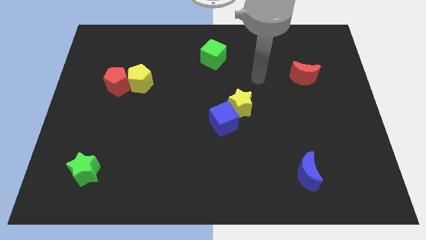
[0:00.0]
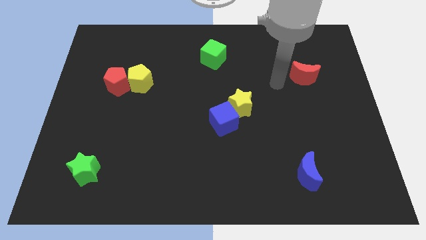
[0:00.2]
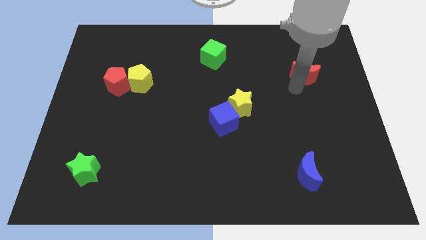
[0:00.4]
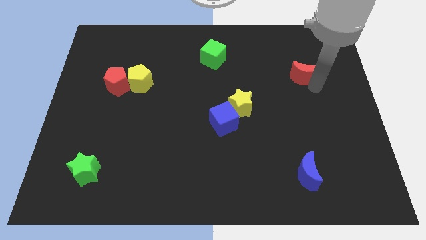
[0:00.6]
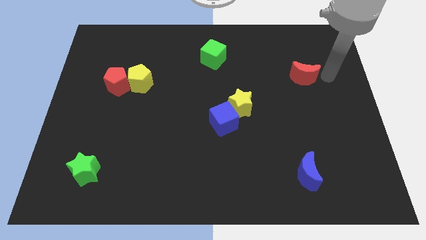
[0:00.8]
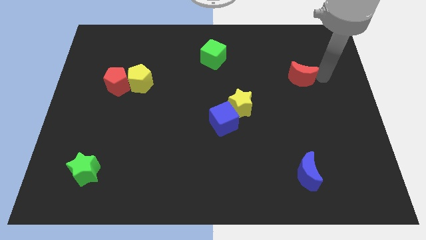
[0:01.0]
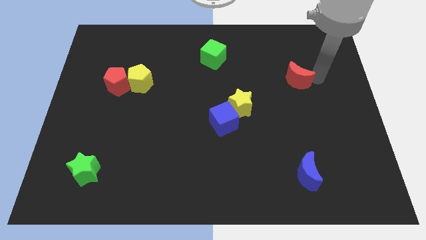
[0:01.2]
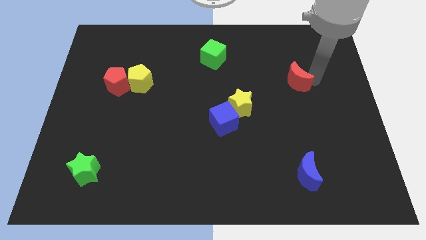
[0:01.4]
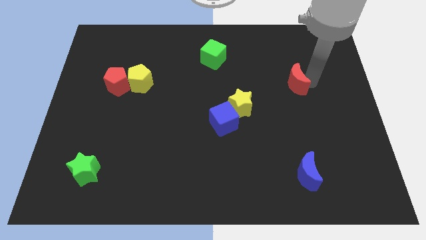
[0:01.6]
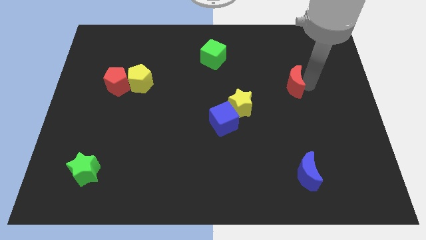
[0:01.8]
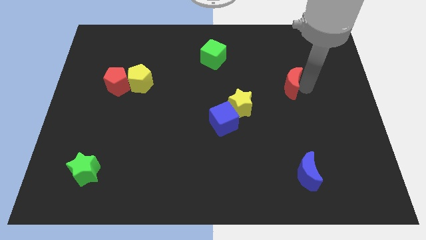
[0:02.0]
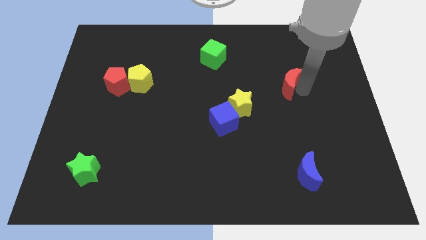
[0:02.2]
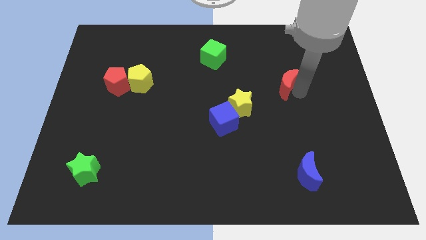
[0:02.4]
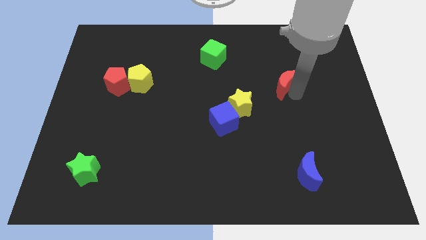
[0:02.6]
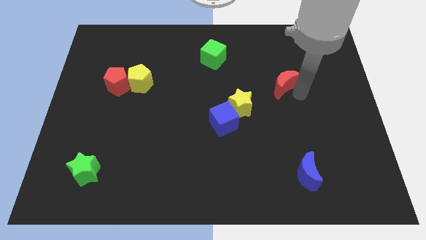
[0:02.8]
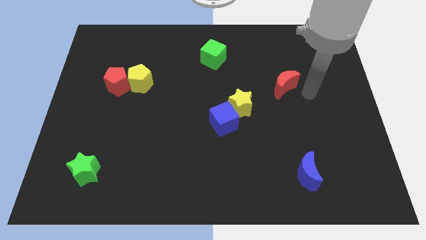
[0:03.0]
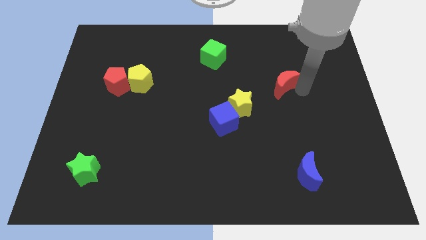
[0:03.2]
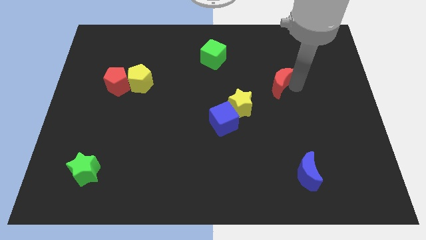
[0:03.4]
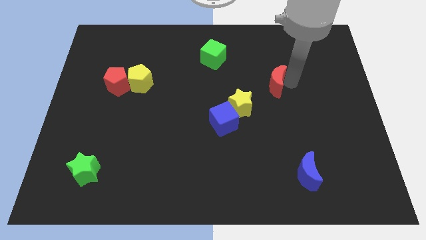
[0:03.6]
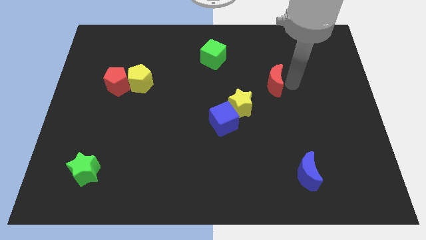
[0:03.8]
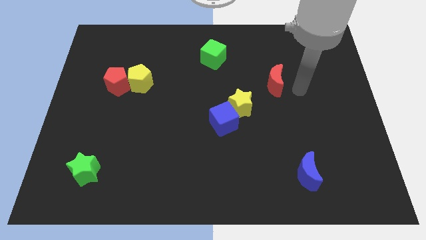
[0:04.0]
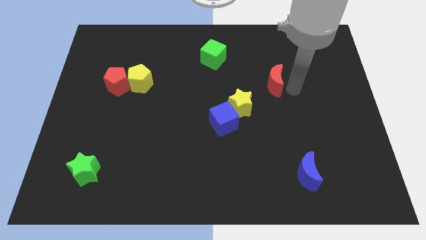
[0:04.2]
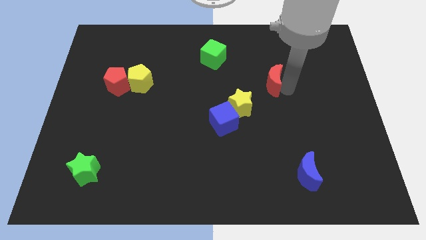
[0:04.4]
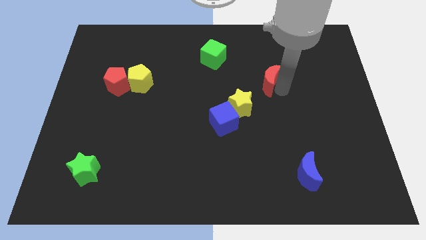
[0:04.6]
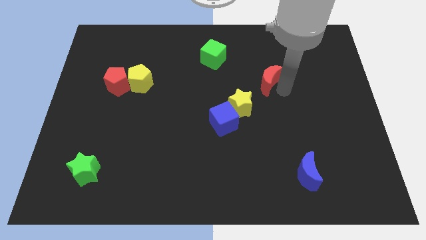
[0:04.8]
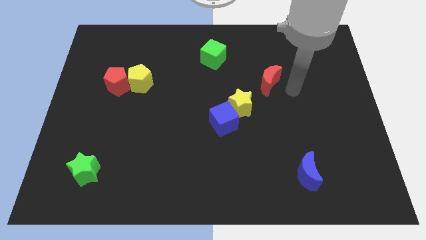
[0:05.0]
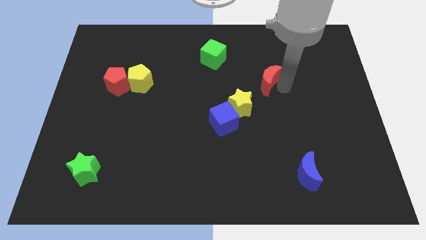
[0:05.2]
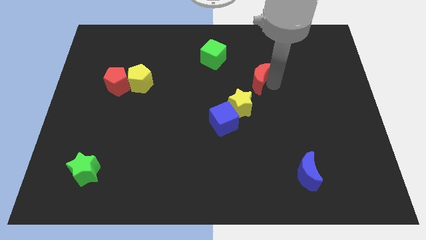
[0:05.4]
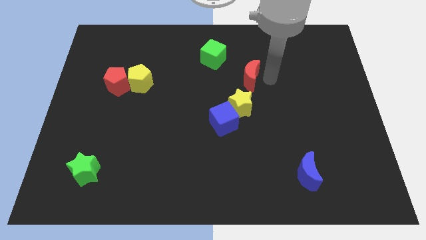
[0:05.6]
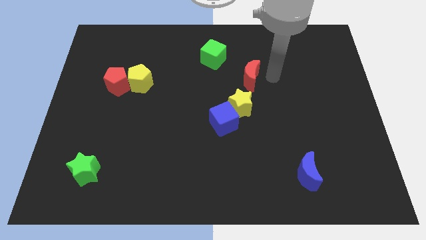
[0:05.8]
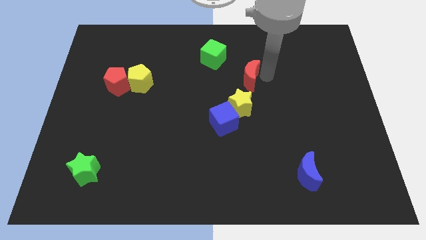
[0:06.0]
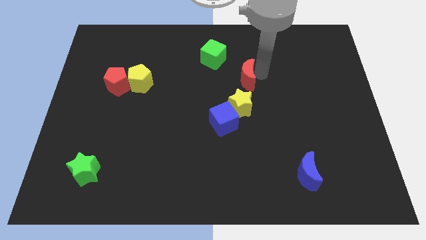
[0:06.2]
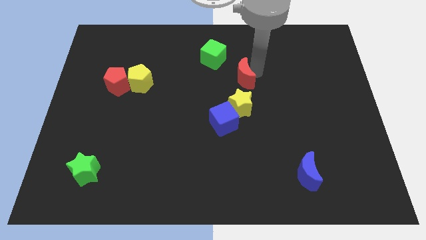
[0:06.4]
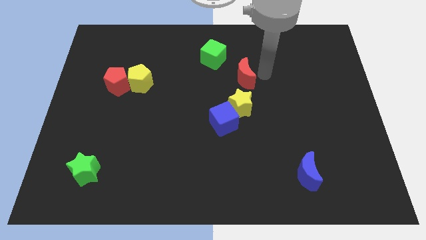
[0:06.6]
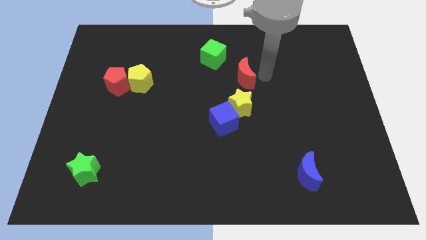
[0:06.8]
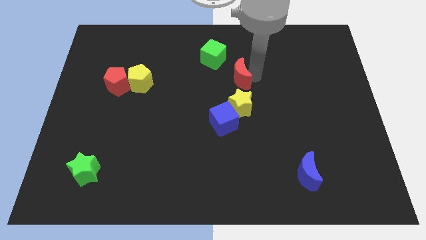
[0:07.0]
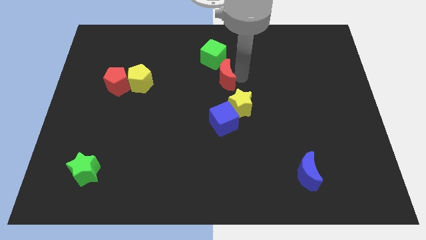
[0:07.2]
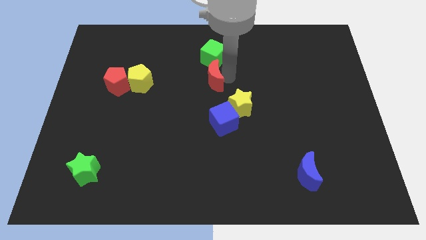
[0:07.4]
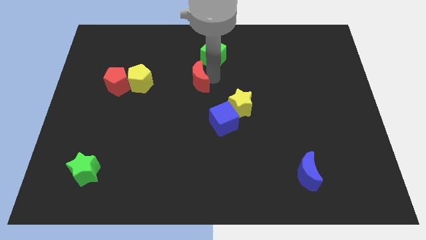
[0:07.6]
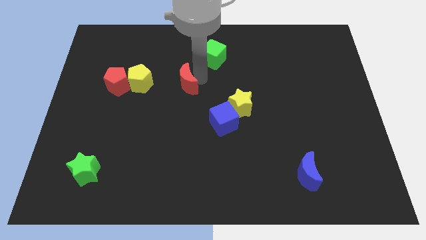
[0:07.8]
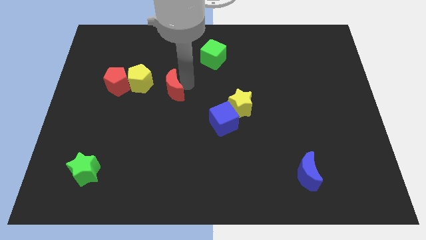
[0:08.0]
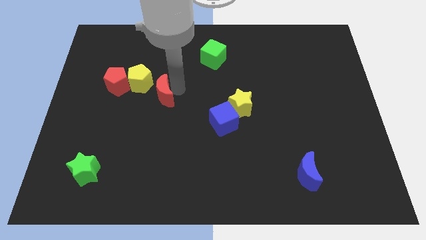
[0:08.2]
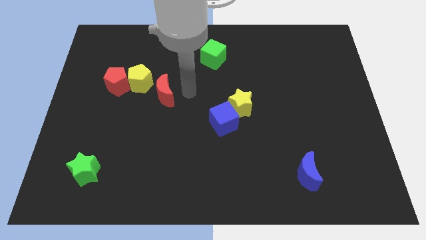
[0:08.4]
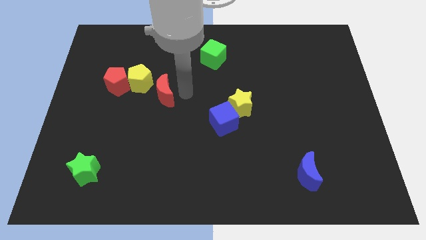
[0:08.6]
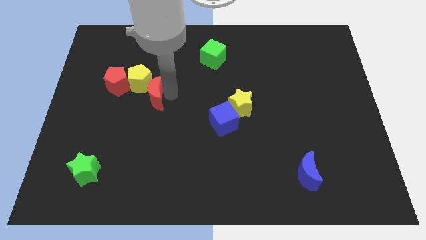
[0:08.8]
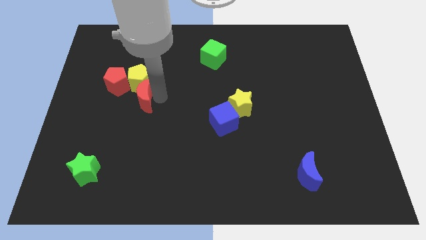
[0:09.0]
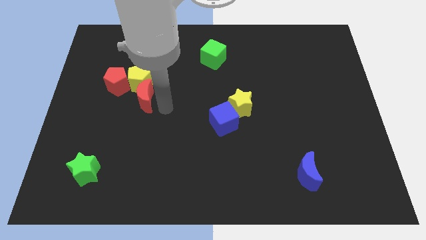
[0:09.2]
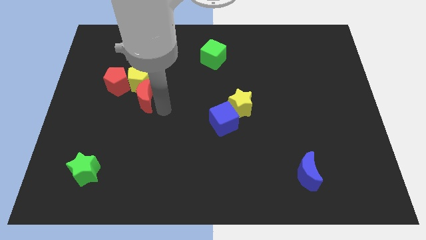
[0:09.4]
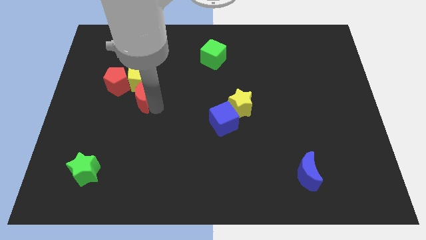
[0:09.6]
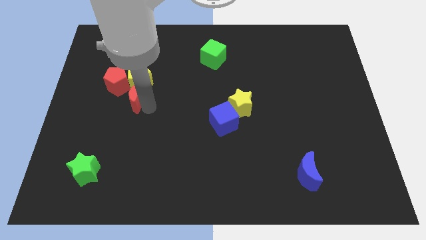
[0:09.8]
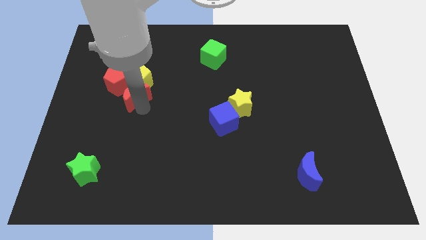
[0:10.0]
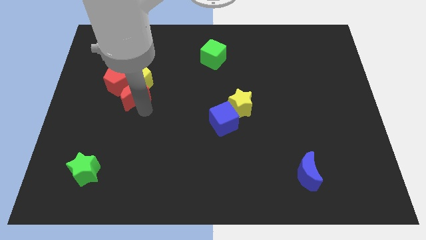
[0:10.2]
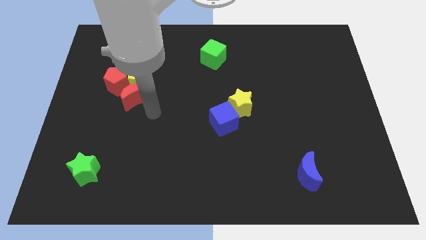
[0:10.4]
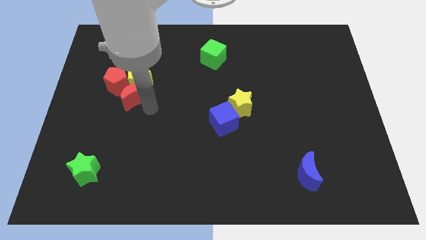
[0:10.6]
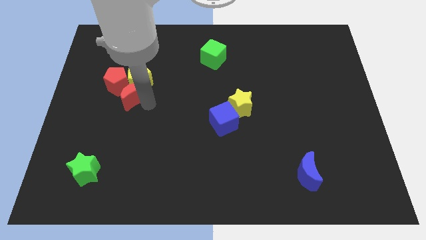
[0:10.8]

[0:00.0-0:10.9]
push the red moon next to the red pentagon

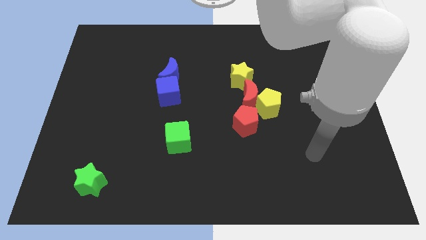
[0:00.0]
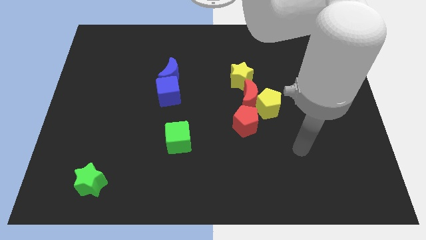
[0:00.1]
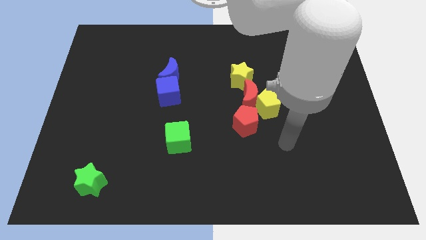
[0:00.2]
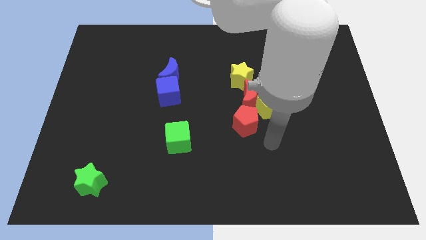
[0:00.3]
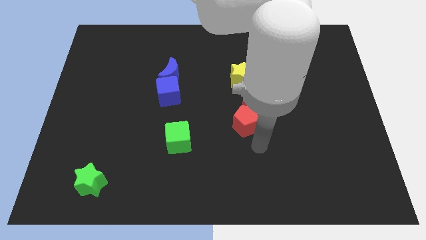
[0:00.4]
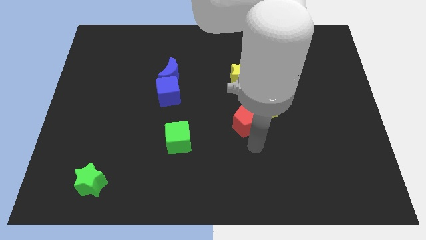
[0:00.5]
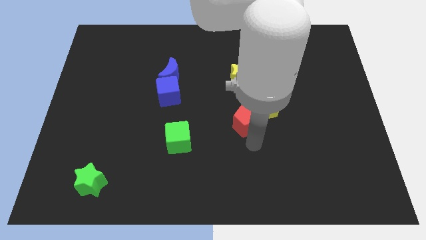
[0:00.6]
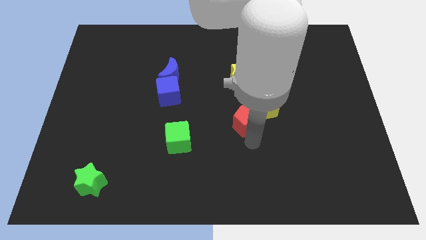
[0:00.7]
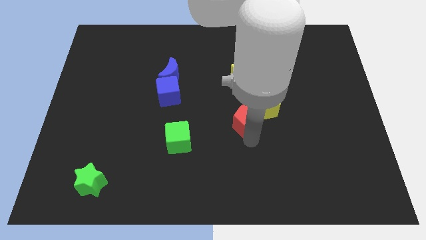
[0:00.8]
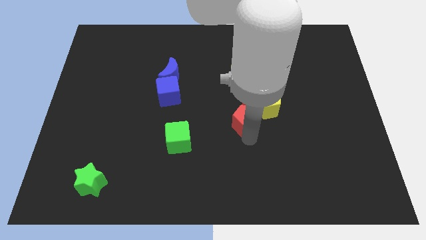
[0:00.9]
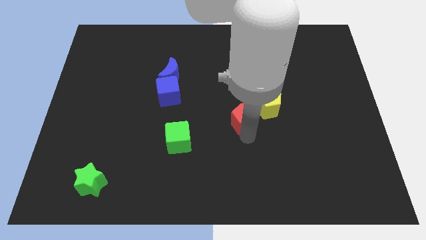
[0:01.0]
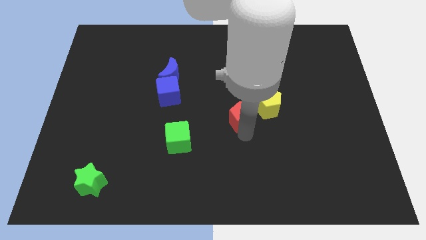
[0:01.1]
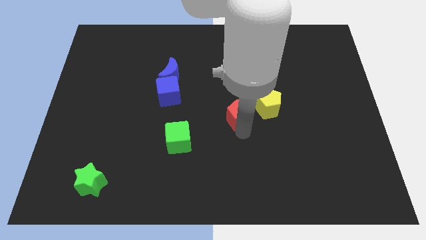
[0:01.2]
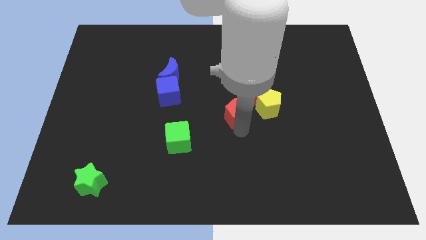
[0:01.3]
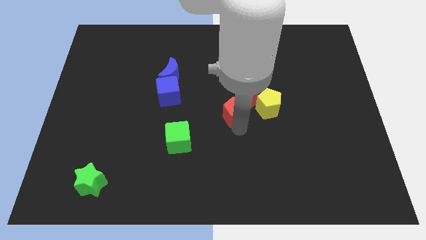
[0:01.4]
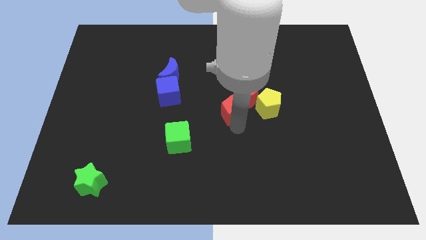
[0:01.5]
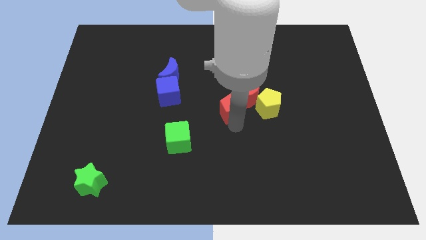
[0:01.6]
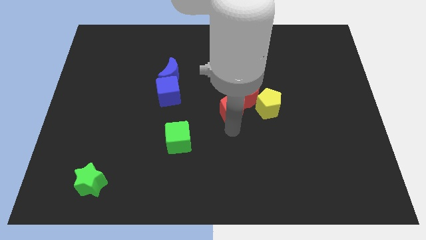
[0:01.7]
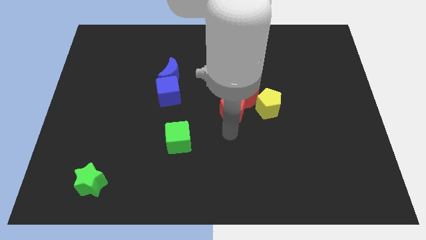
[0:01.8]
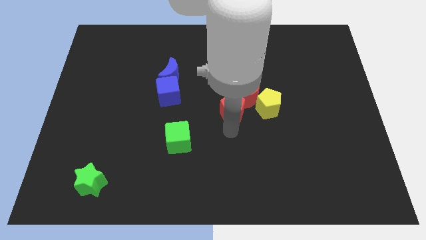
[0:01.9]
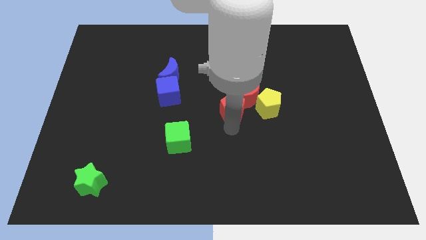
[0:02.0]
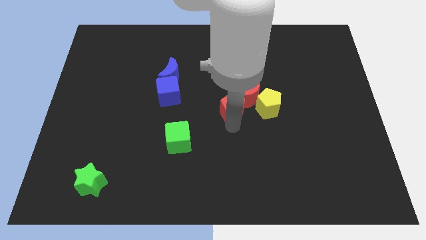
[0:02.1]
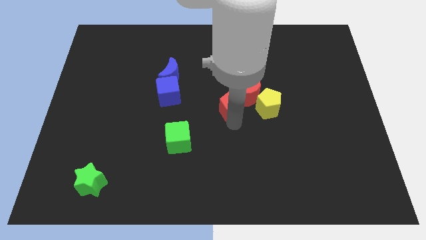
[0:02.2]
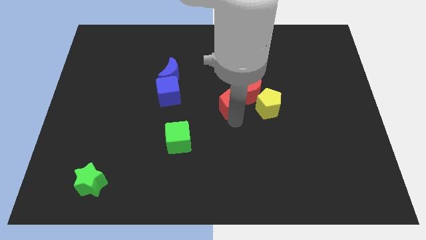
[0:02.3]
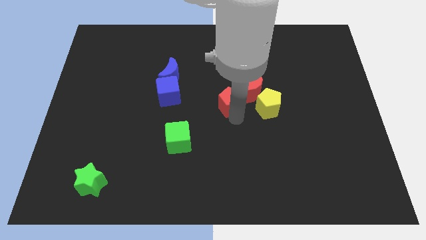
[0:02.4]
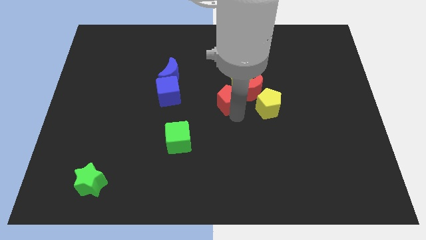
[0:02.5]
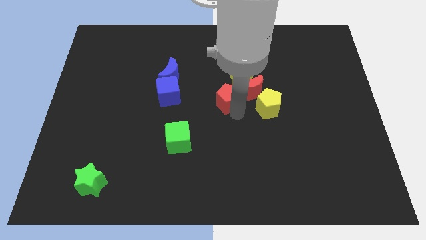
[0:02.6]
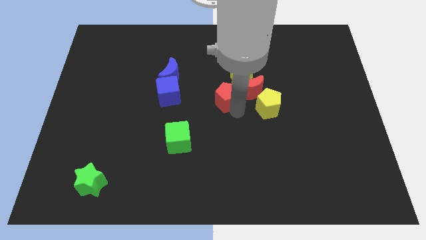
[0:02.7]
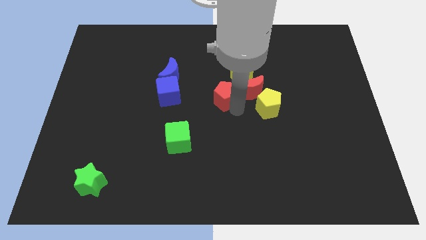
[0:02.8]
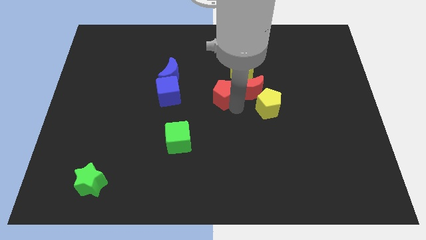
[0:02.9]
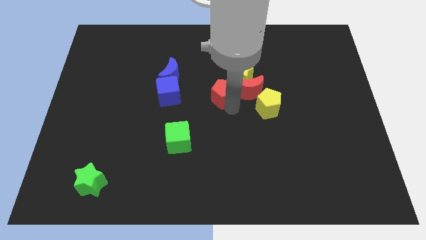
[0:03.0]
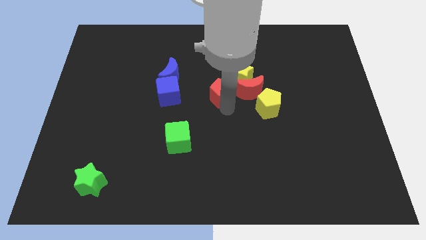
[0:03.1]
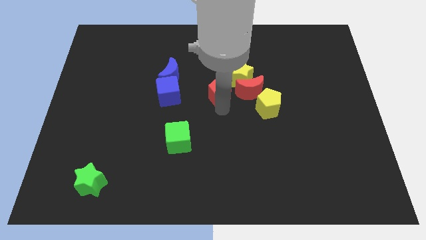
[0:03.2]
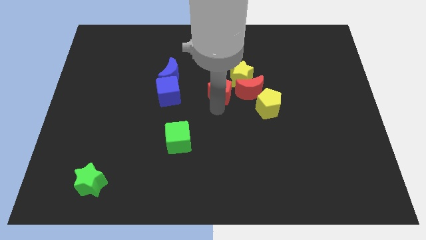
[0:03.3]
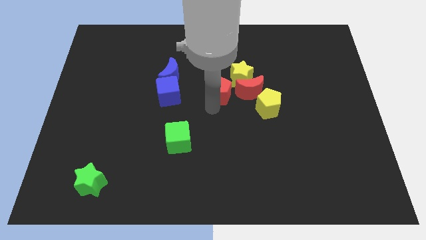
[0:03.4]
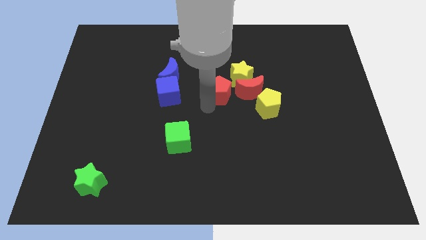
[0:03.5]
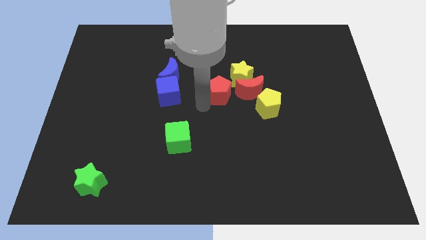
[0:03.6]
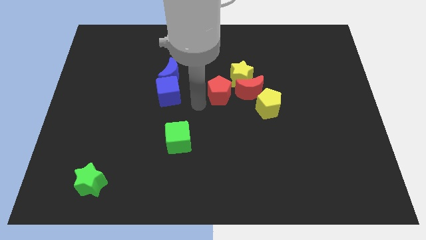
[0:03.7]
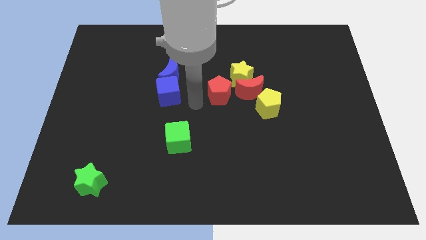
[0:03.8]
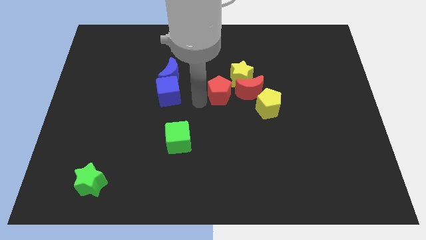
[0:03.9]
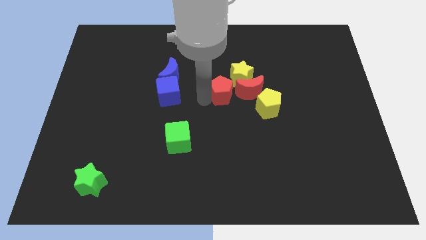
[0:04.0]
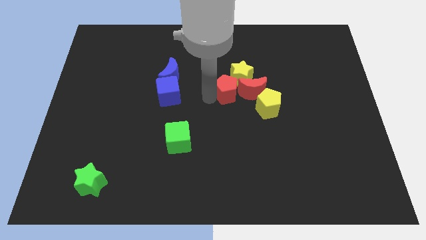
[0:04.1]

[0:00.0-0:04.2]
move the red pentagon to the yellow star
